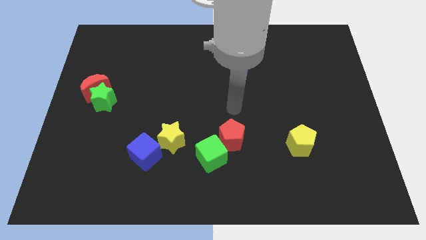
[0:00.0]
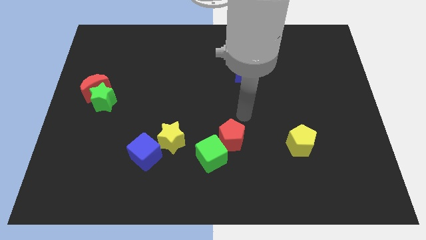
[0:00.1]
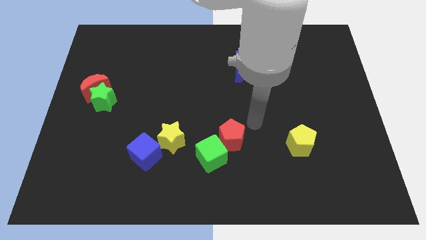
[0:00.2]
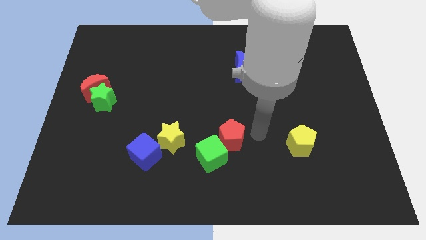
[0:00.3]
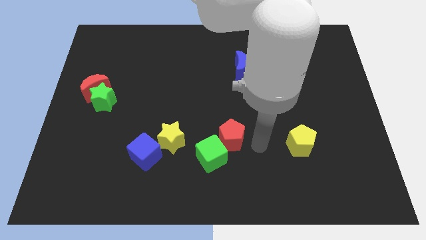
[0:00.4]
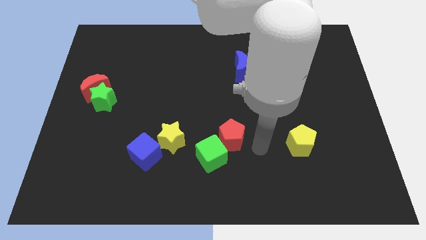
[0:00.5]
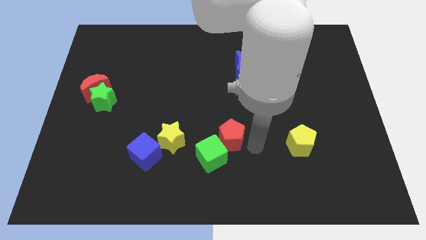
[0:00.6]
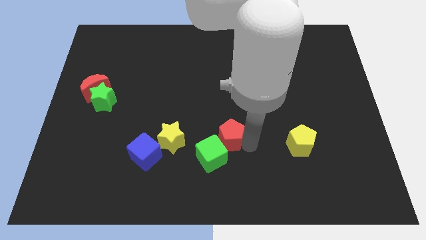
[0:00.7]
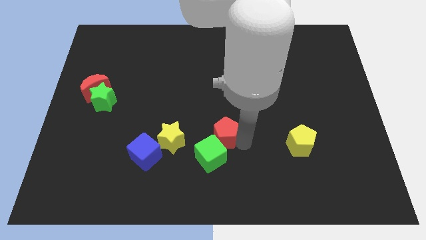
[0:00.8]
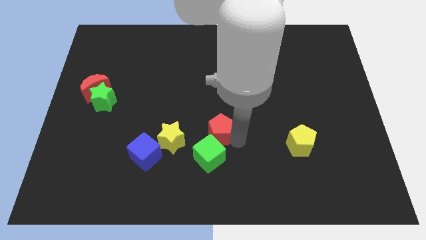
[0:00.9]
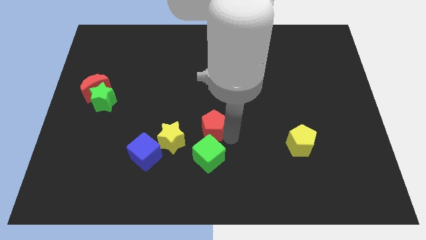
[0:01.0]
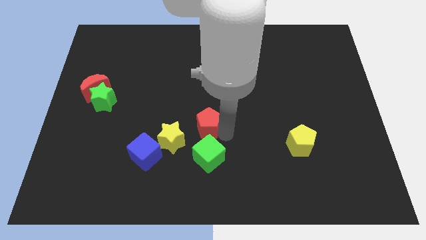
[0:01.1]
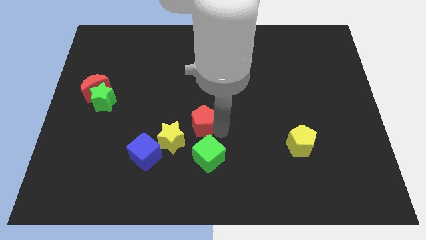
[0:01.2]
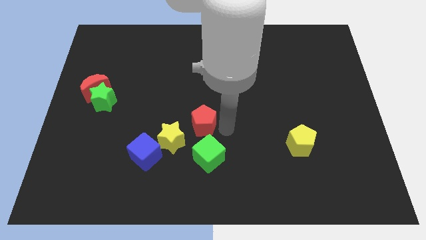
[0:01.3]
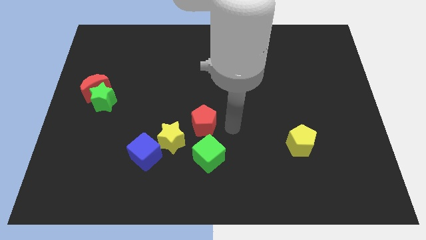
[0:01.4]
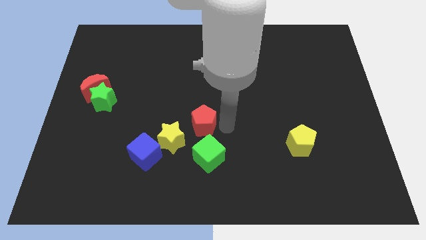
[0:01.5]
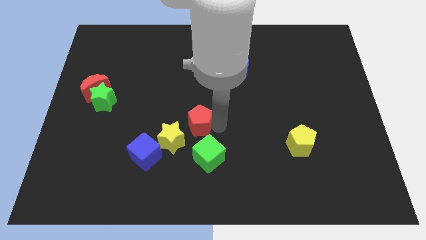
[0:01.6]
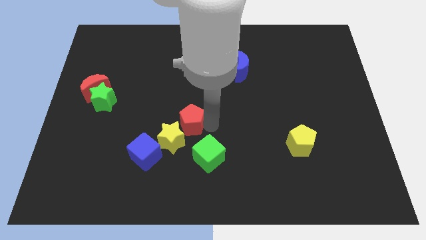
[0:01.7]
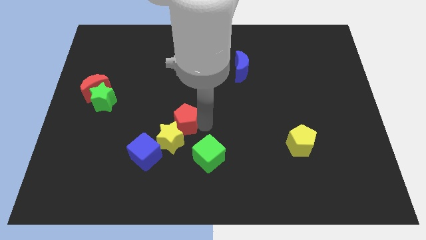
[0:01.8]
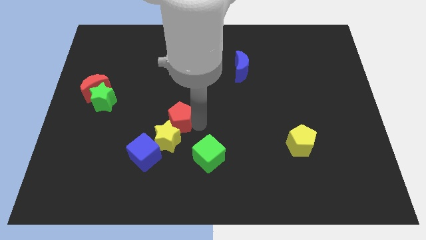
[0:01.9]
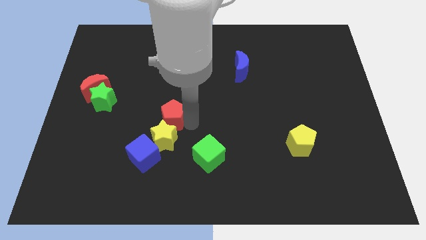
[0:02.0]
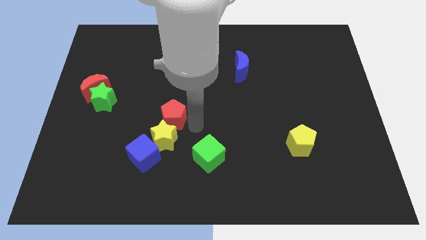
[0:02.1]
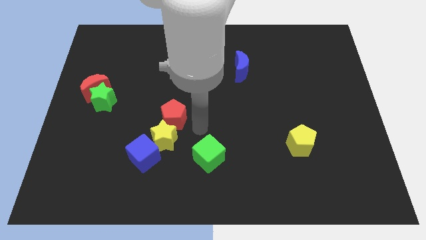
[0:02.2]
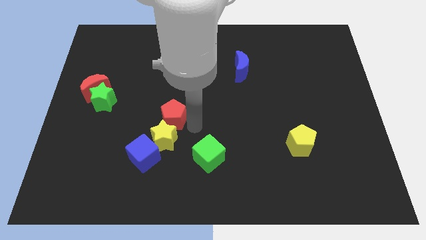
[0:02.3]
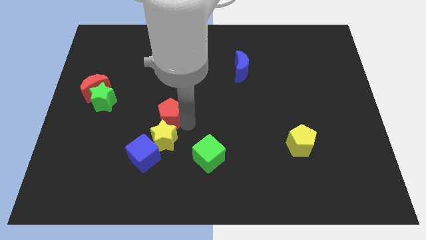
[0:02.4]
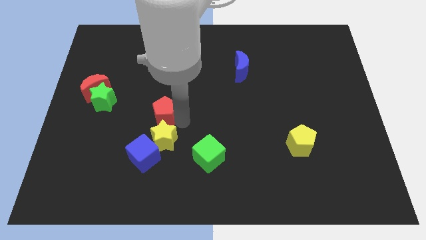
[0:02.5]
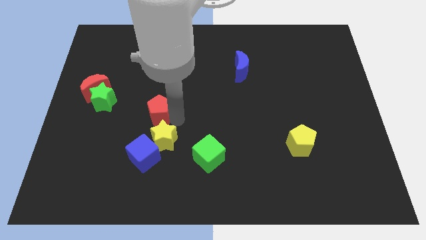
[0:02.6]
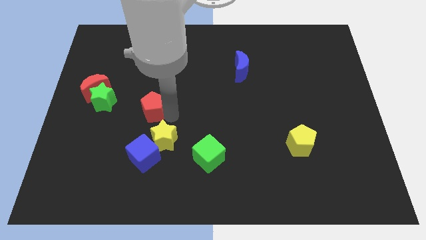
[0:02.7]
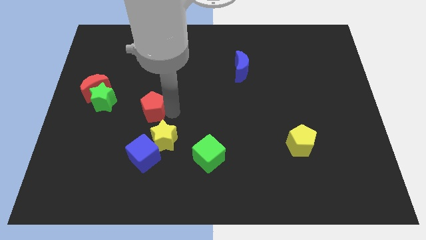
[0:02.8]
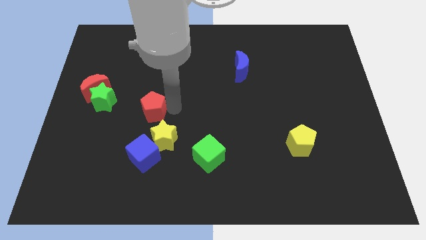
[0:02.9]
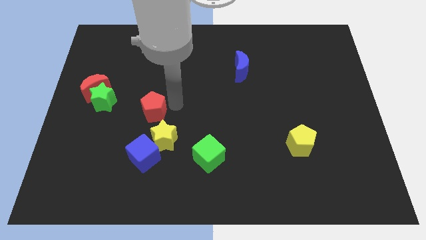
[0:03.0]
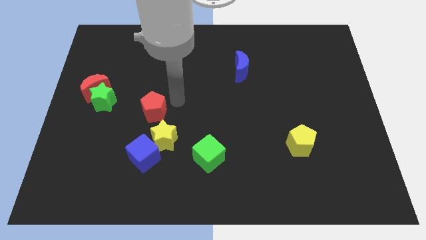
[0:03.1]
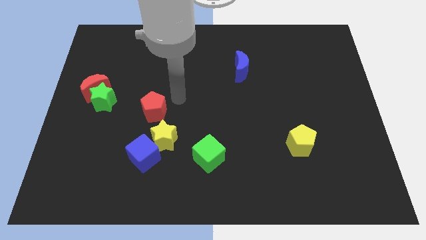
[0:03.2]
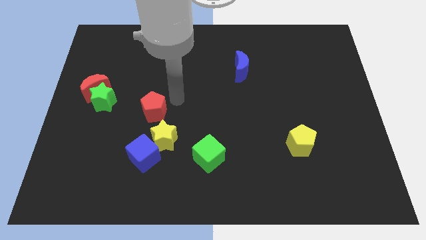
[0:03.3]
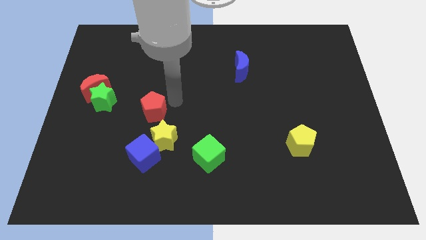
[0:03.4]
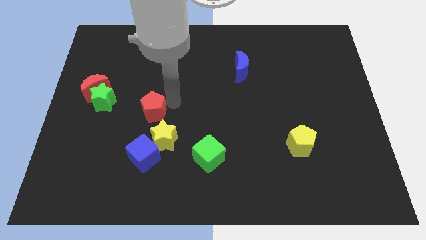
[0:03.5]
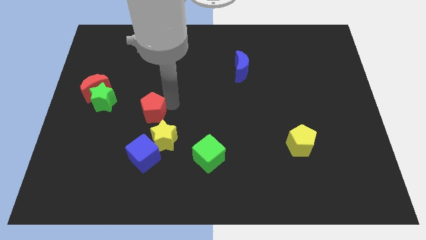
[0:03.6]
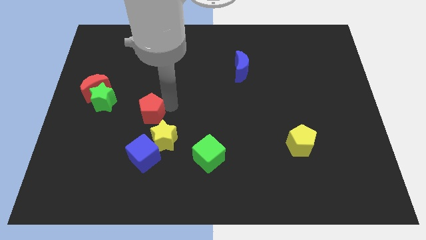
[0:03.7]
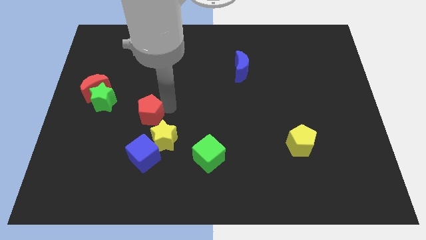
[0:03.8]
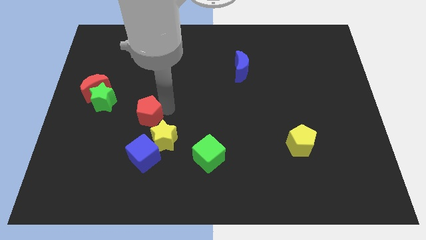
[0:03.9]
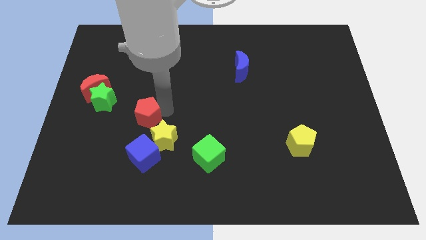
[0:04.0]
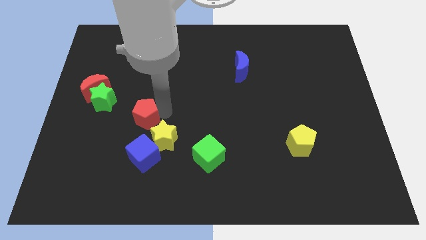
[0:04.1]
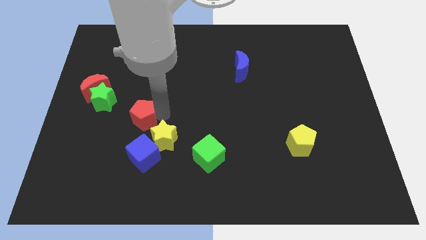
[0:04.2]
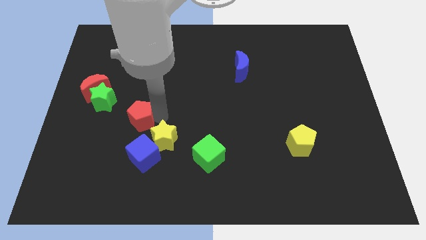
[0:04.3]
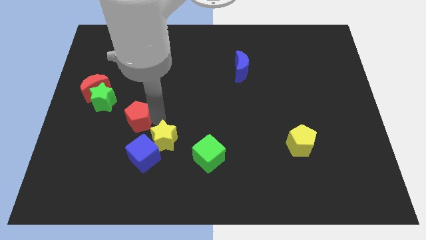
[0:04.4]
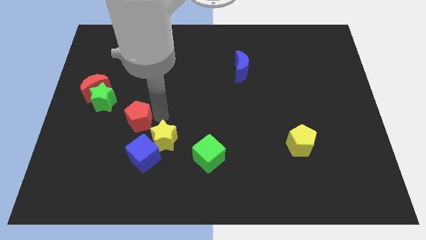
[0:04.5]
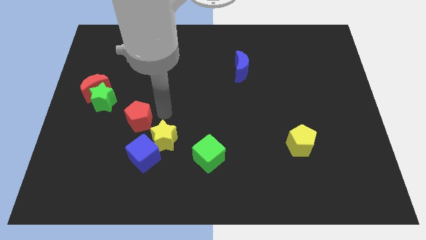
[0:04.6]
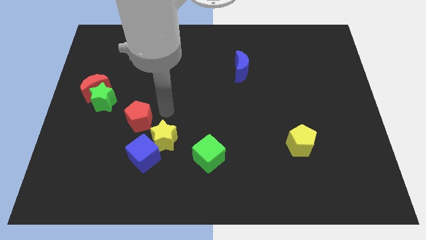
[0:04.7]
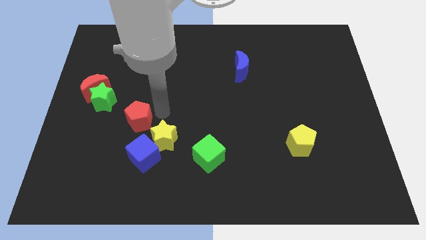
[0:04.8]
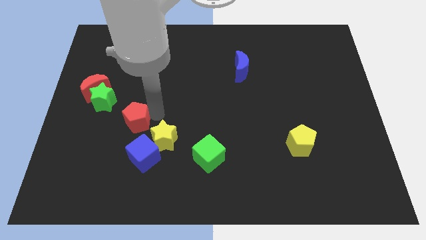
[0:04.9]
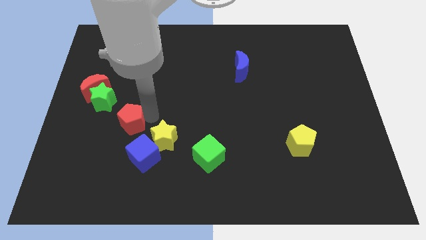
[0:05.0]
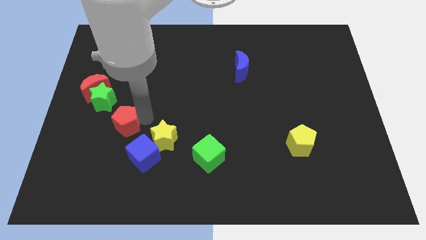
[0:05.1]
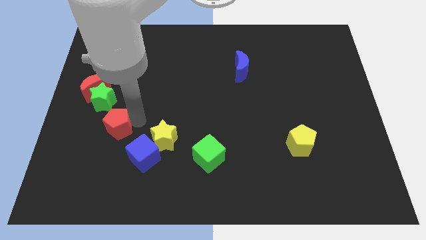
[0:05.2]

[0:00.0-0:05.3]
push the red pentagon below the green star

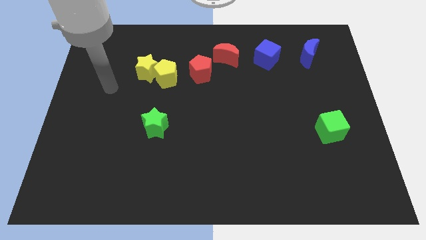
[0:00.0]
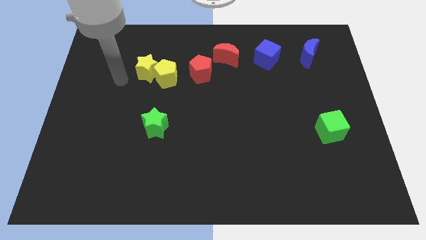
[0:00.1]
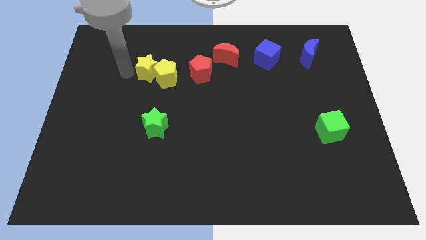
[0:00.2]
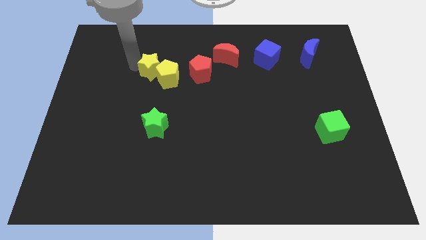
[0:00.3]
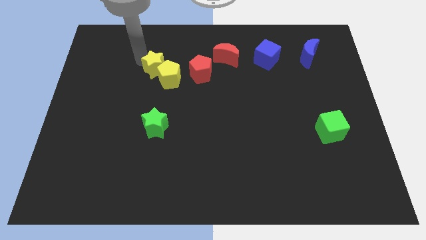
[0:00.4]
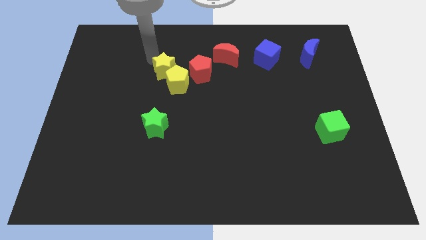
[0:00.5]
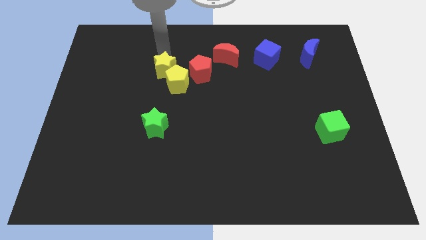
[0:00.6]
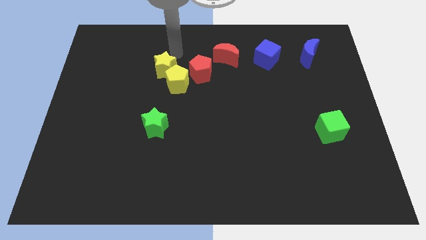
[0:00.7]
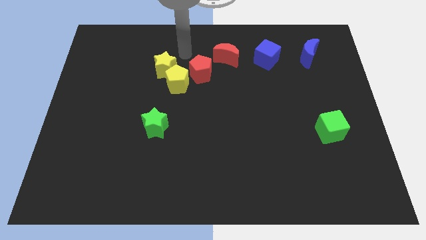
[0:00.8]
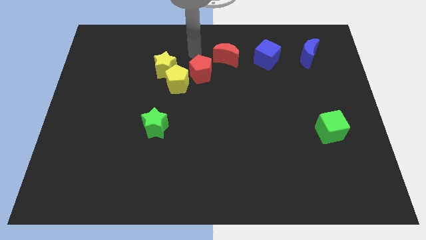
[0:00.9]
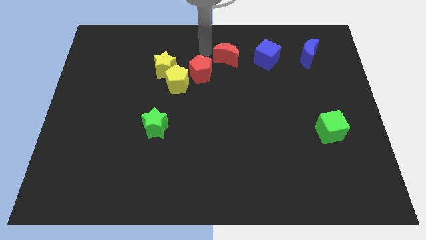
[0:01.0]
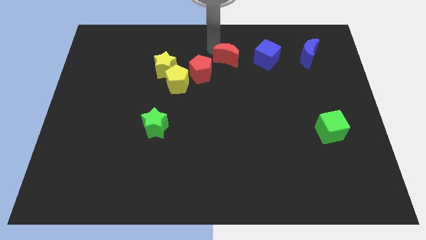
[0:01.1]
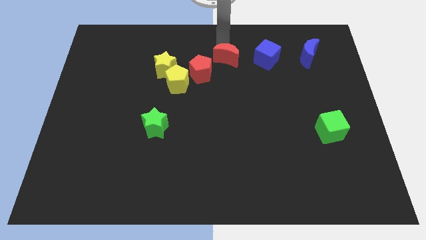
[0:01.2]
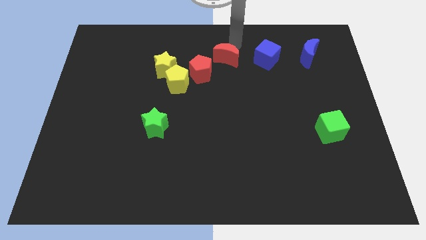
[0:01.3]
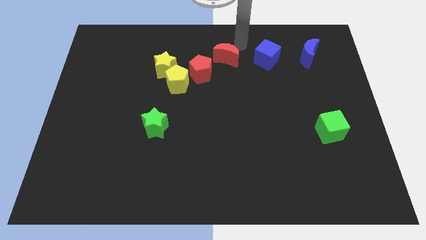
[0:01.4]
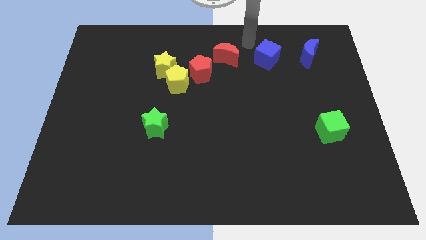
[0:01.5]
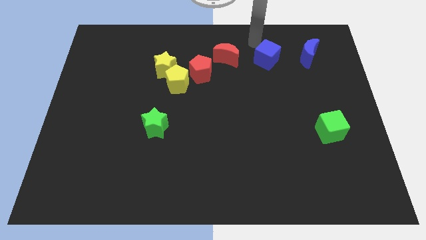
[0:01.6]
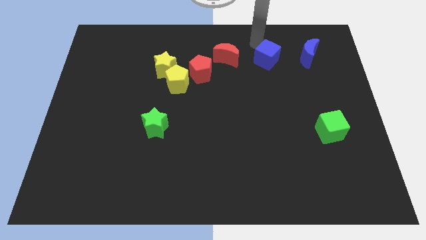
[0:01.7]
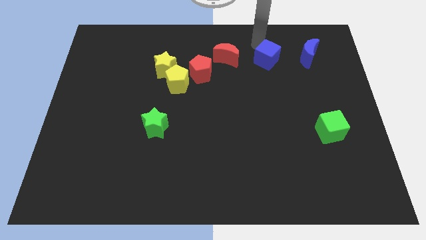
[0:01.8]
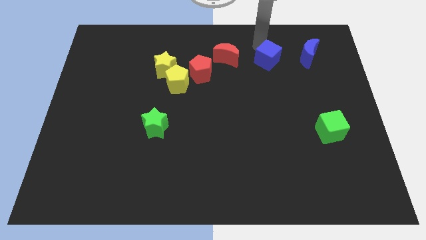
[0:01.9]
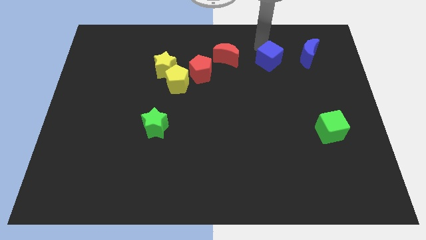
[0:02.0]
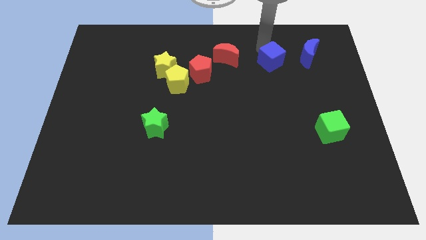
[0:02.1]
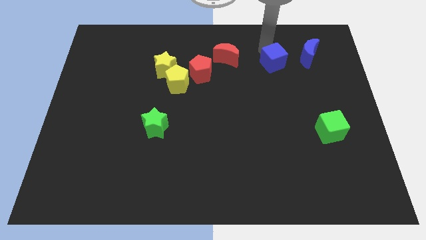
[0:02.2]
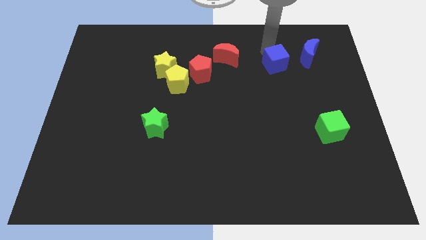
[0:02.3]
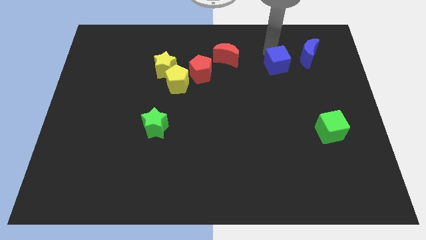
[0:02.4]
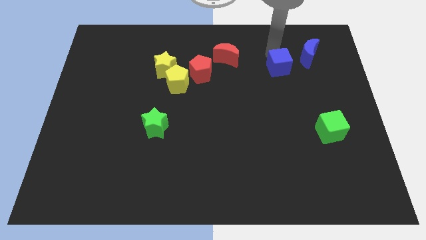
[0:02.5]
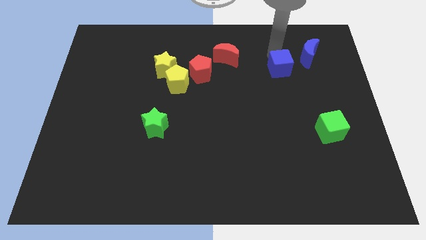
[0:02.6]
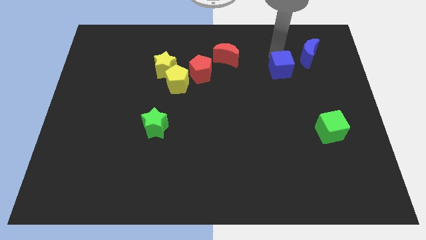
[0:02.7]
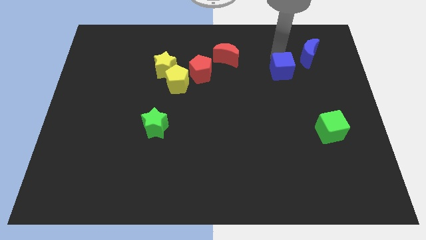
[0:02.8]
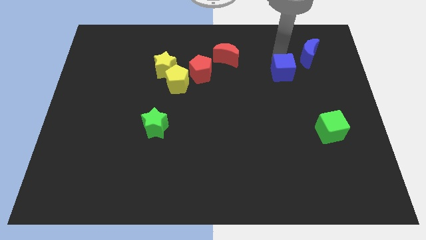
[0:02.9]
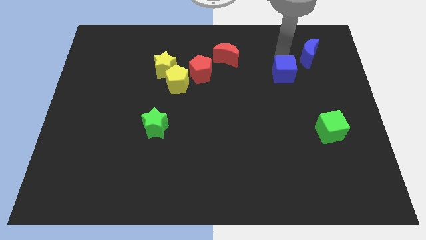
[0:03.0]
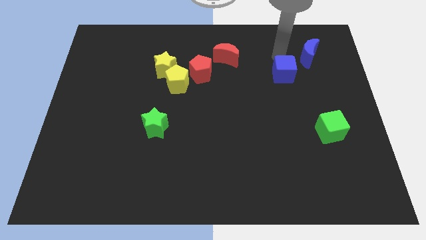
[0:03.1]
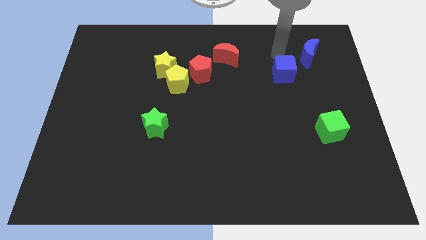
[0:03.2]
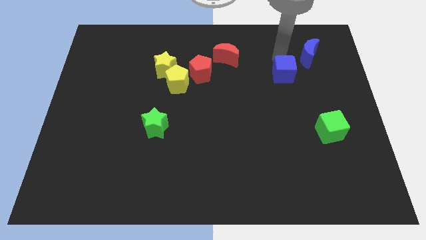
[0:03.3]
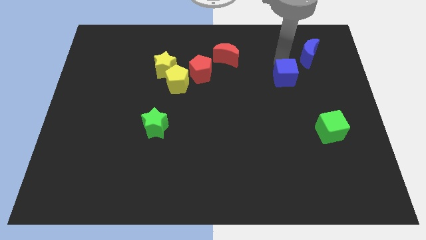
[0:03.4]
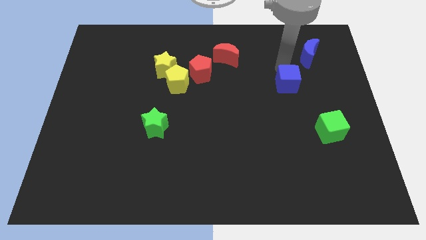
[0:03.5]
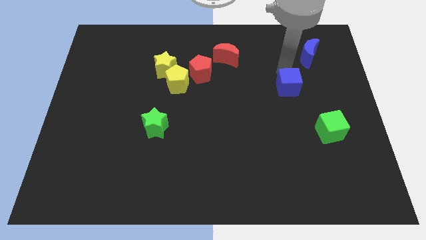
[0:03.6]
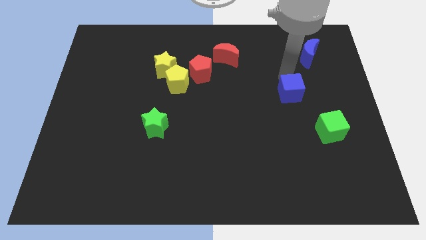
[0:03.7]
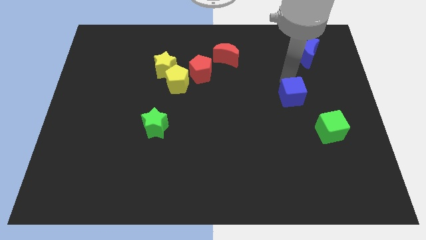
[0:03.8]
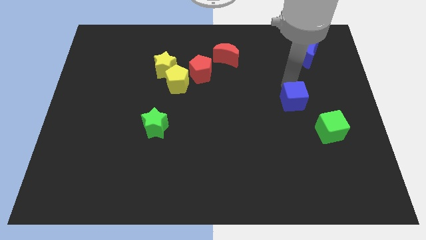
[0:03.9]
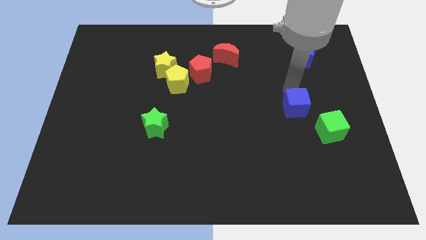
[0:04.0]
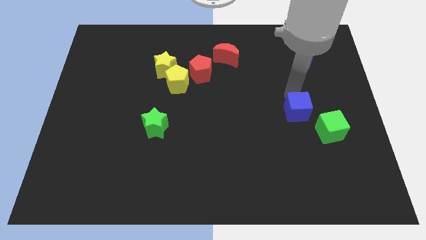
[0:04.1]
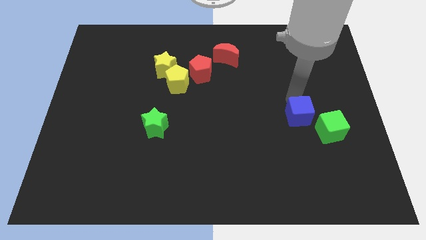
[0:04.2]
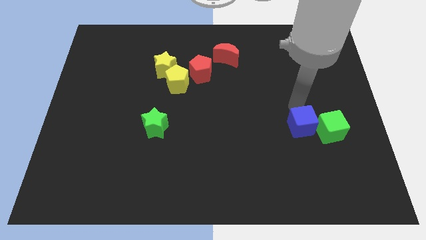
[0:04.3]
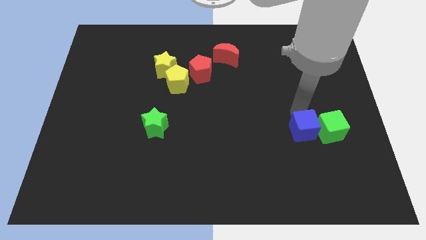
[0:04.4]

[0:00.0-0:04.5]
move the blue cube to the bottom left of the green cube
